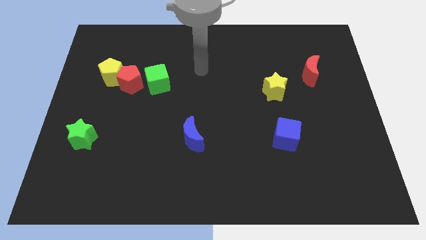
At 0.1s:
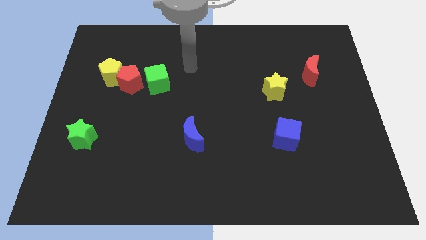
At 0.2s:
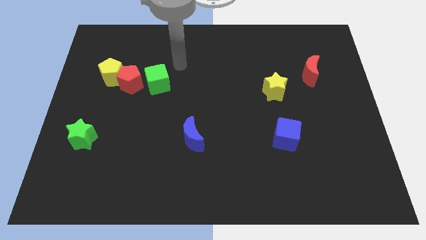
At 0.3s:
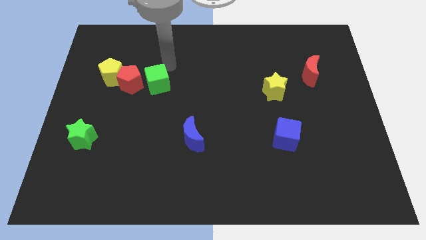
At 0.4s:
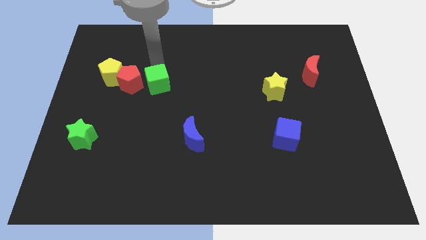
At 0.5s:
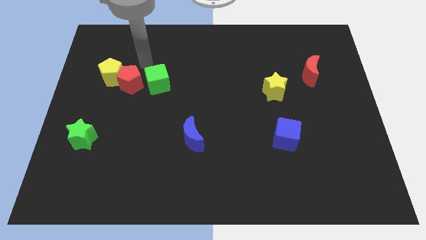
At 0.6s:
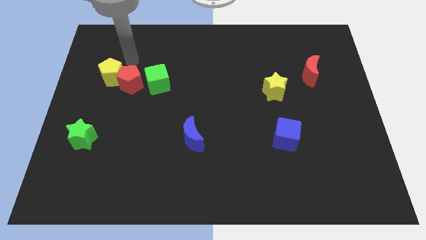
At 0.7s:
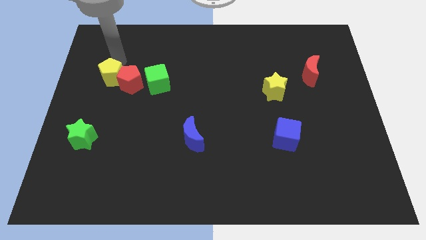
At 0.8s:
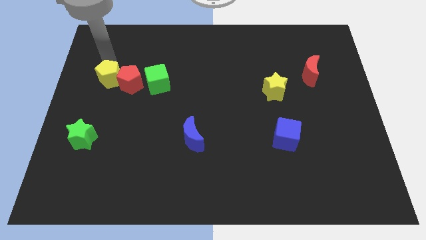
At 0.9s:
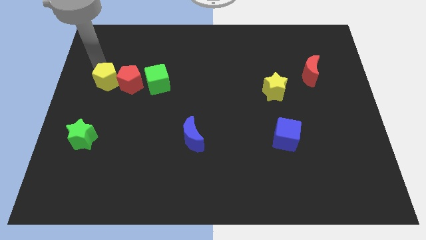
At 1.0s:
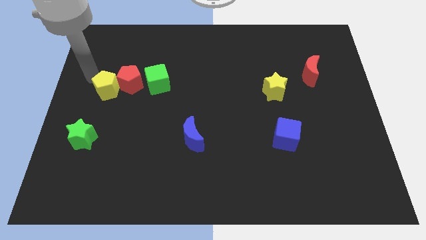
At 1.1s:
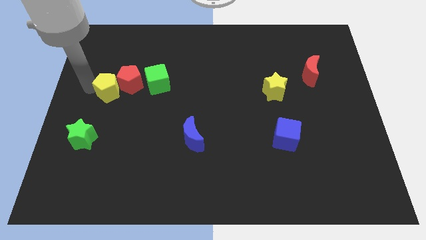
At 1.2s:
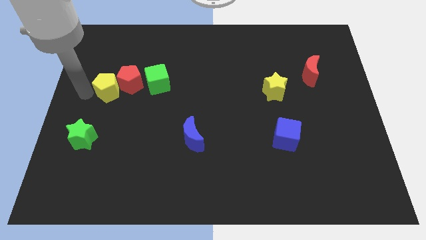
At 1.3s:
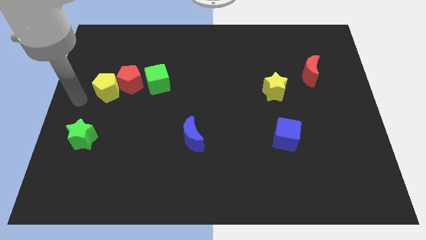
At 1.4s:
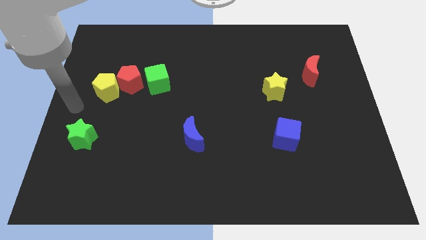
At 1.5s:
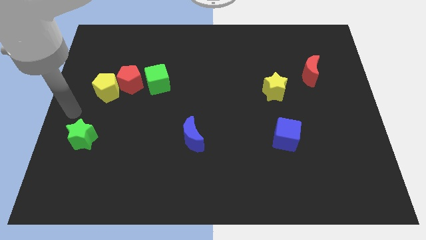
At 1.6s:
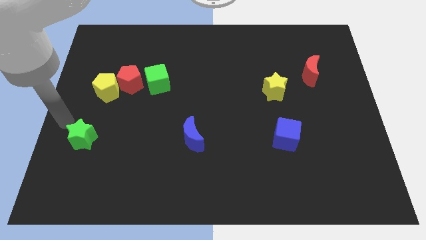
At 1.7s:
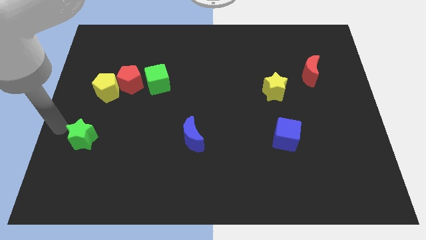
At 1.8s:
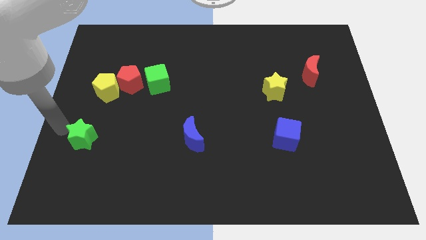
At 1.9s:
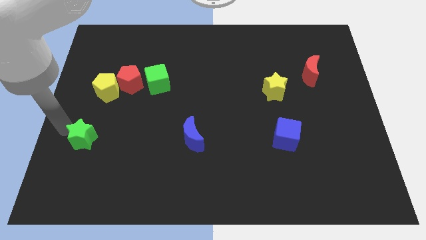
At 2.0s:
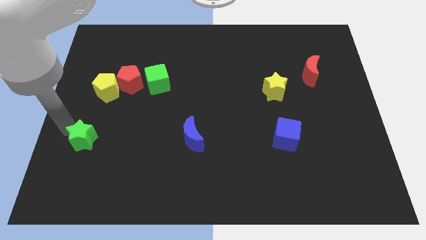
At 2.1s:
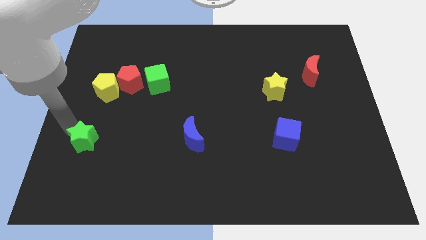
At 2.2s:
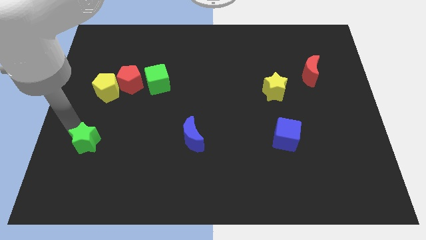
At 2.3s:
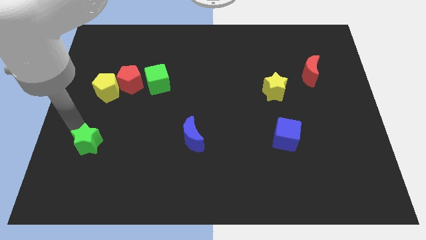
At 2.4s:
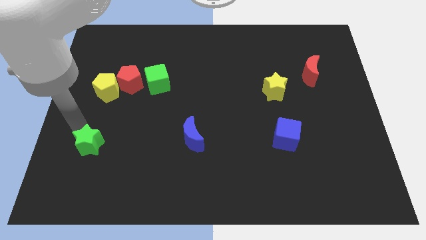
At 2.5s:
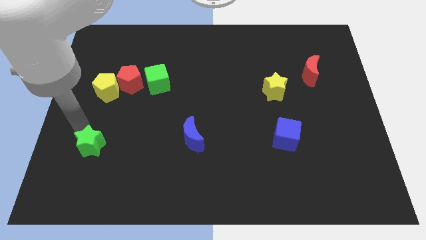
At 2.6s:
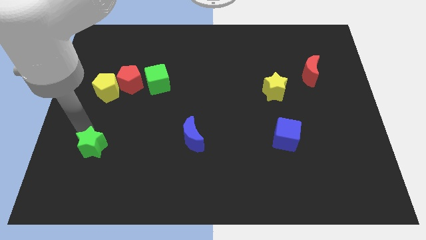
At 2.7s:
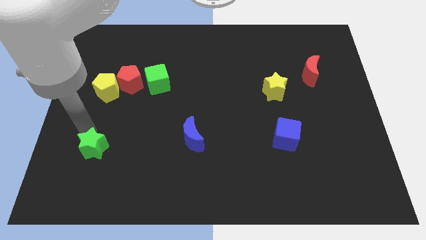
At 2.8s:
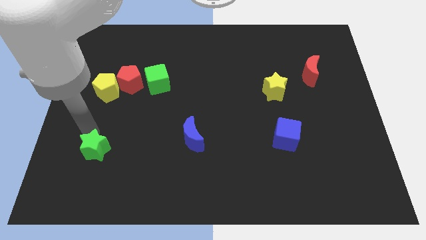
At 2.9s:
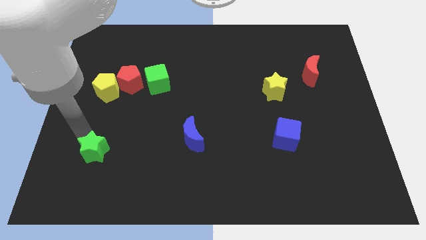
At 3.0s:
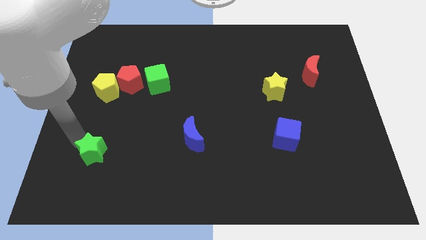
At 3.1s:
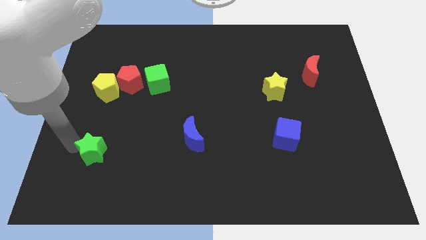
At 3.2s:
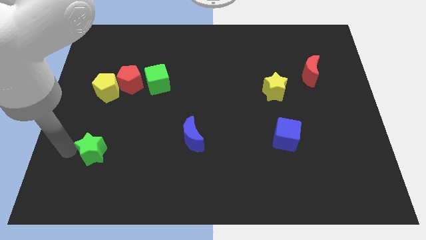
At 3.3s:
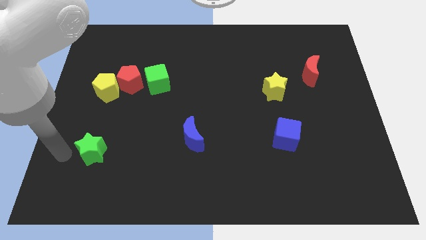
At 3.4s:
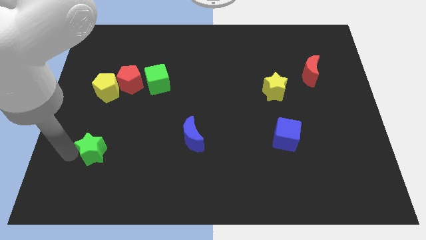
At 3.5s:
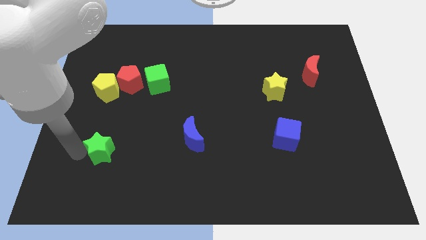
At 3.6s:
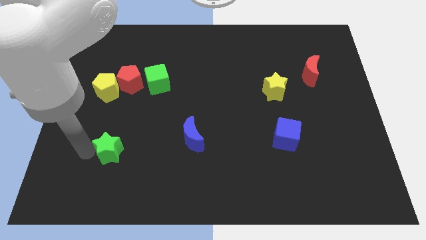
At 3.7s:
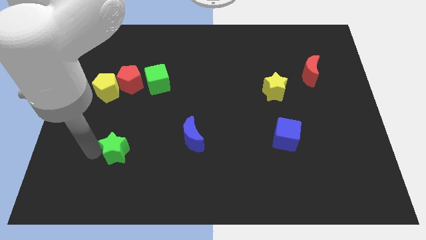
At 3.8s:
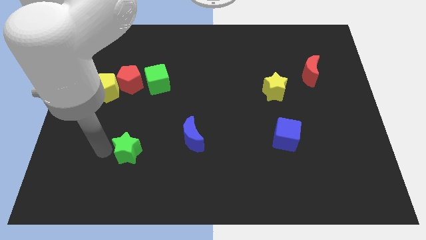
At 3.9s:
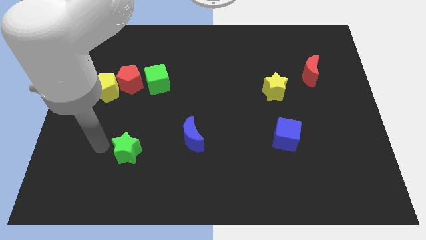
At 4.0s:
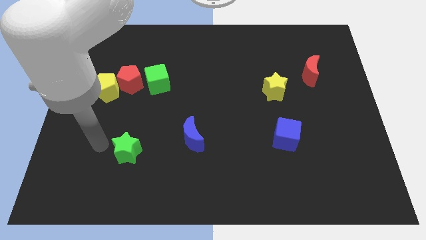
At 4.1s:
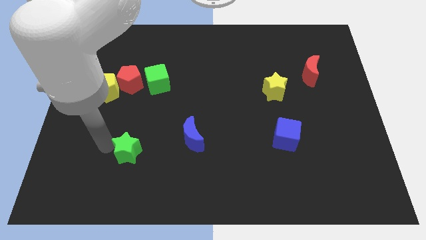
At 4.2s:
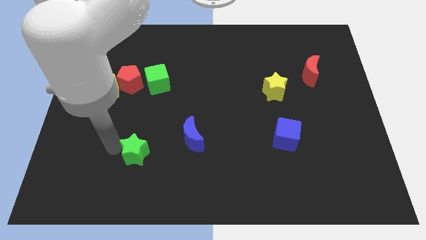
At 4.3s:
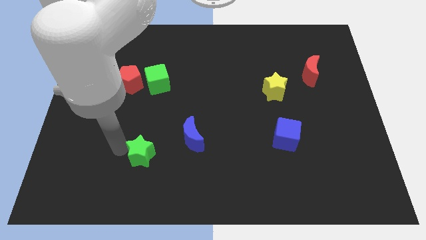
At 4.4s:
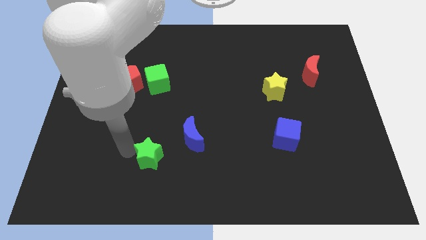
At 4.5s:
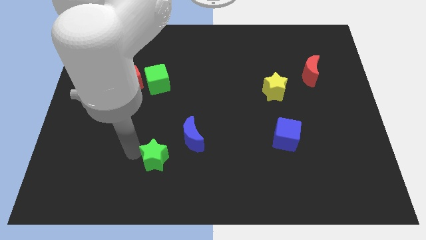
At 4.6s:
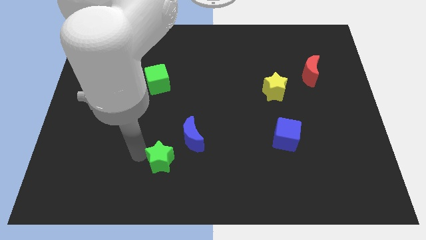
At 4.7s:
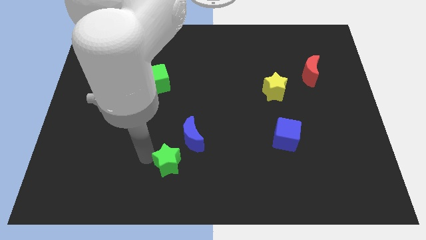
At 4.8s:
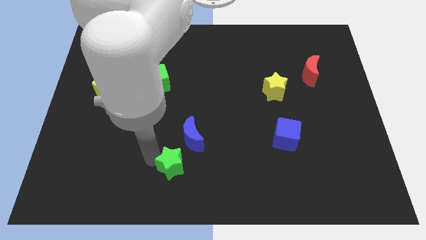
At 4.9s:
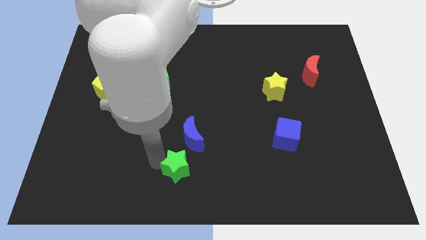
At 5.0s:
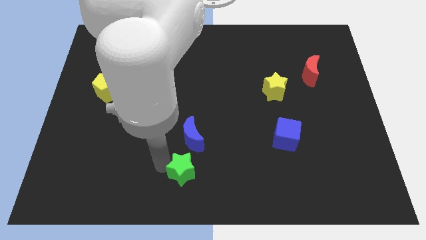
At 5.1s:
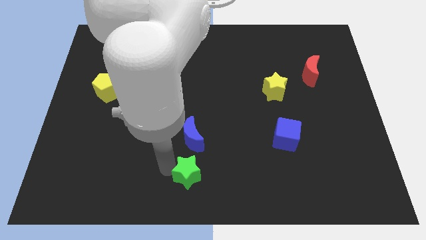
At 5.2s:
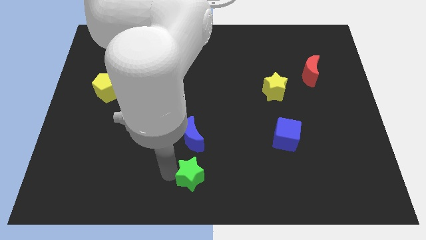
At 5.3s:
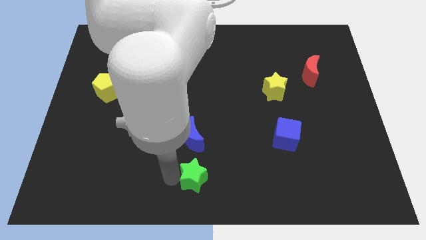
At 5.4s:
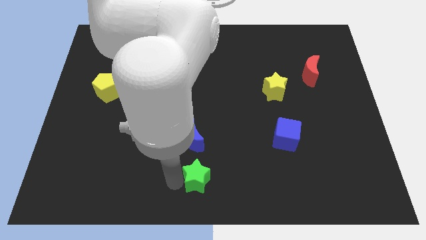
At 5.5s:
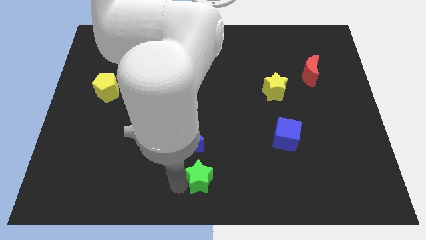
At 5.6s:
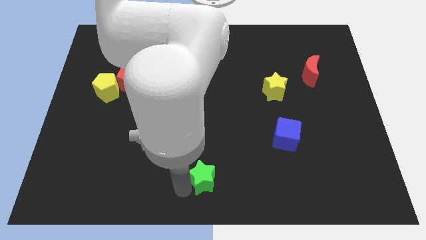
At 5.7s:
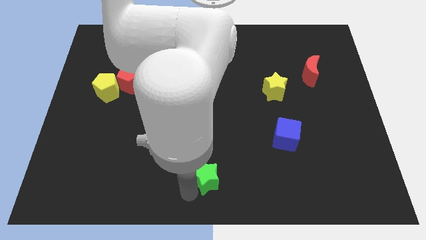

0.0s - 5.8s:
push the green star diagonally down and to the right of the blue moon

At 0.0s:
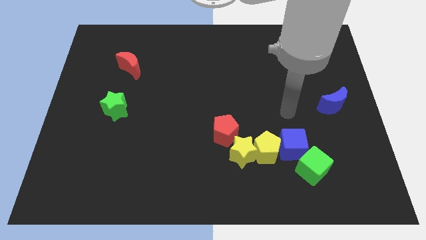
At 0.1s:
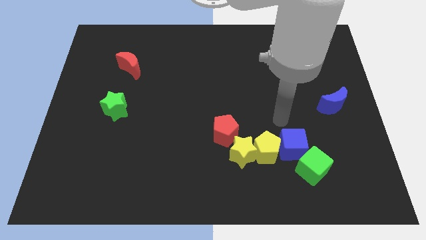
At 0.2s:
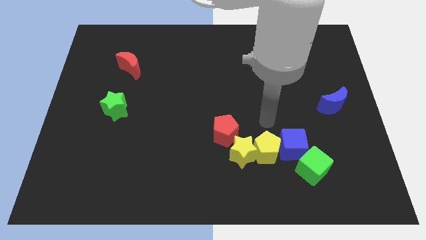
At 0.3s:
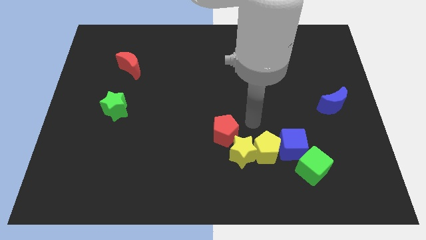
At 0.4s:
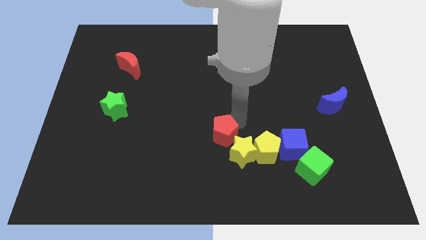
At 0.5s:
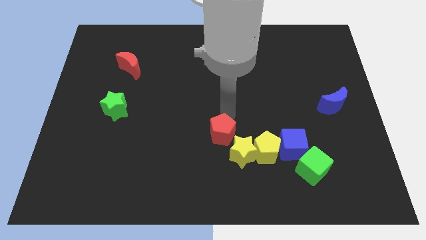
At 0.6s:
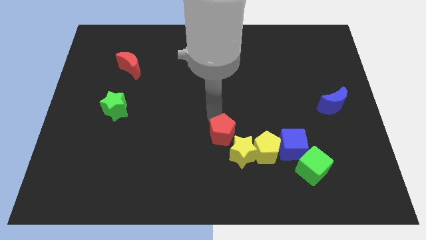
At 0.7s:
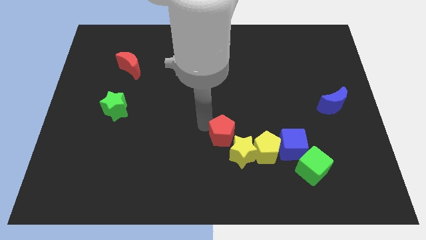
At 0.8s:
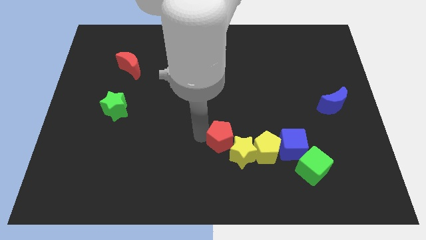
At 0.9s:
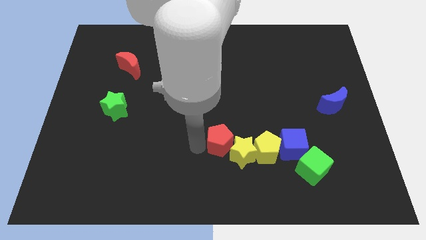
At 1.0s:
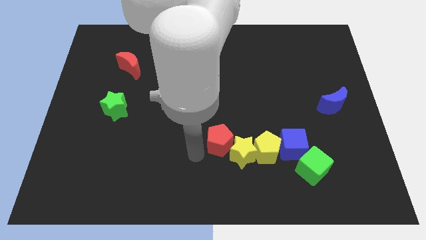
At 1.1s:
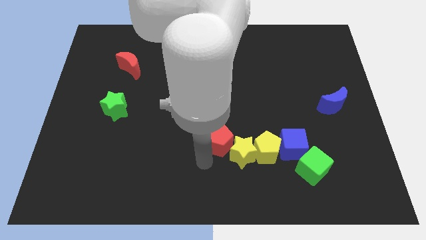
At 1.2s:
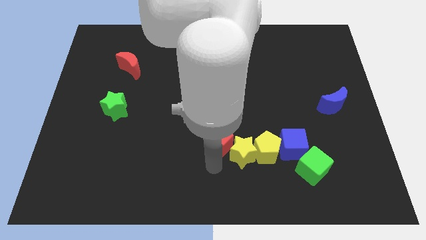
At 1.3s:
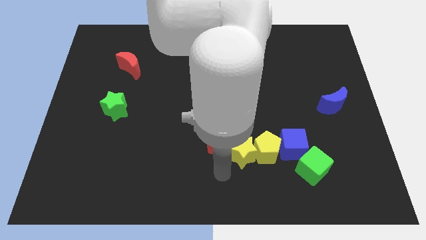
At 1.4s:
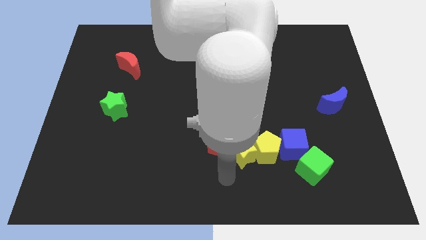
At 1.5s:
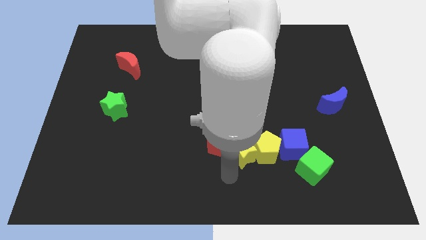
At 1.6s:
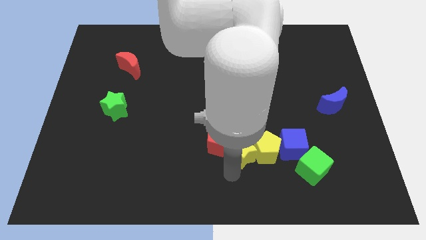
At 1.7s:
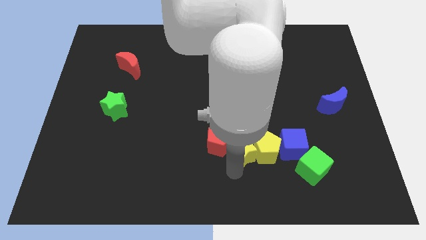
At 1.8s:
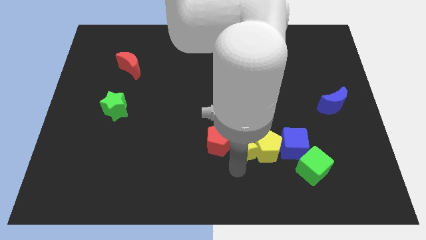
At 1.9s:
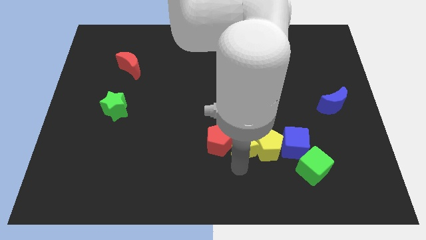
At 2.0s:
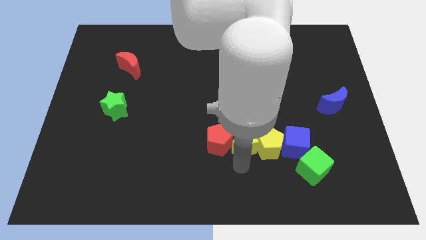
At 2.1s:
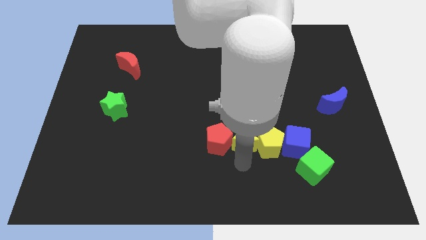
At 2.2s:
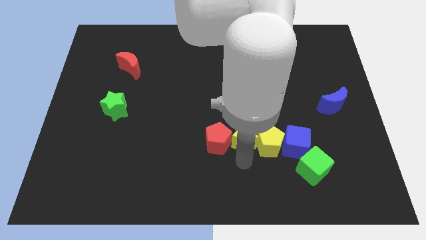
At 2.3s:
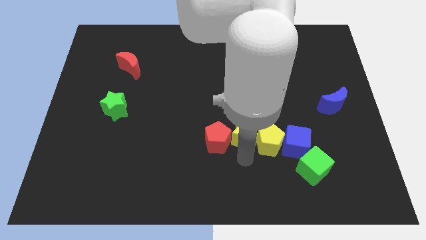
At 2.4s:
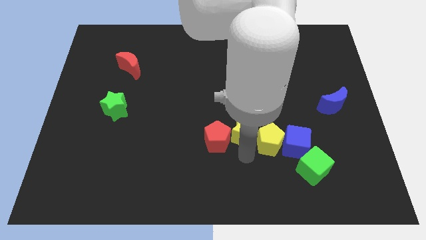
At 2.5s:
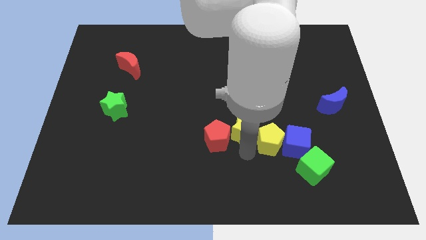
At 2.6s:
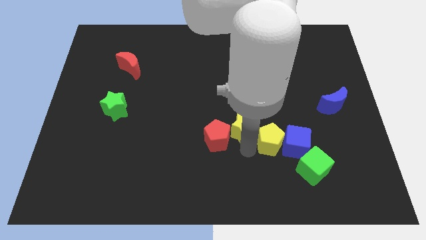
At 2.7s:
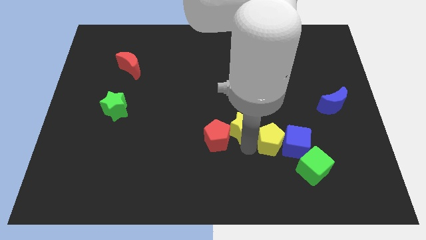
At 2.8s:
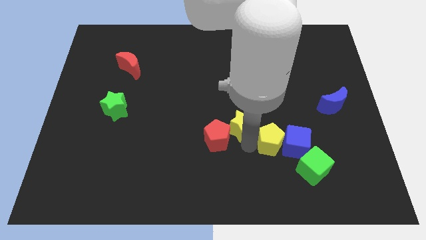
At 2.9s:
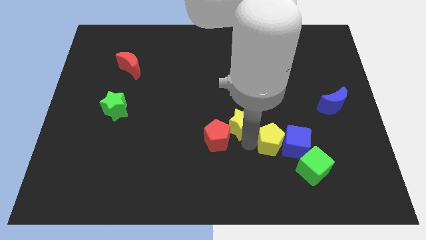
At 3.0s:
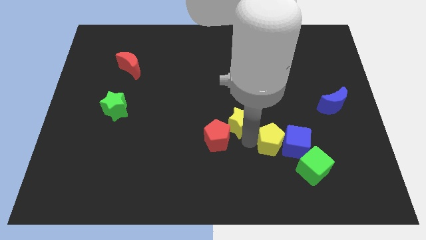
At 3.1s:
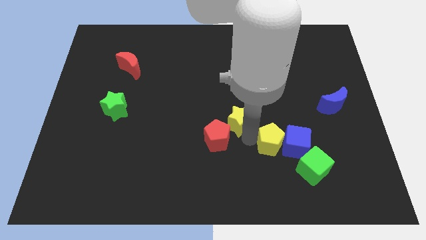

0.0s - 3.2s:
move the yellow star above the red pentagon
